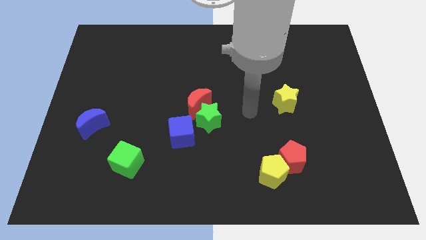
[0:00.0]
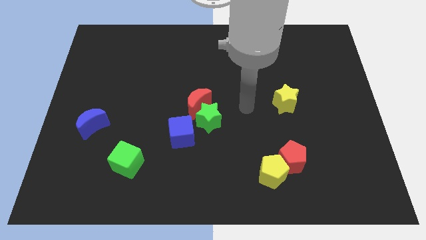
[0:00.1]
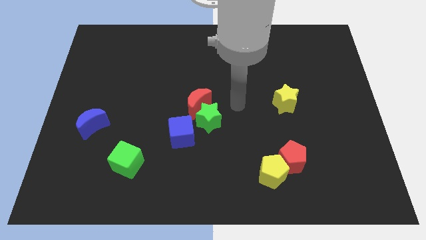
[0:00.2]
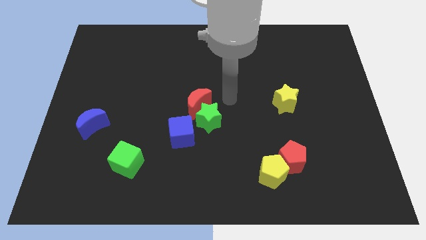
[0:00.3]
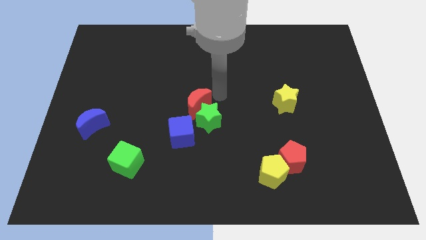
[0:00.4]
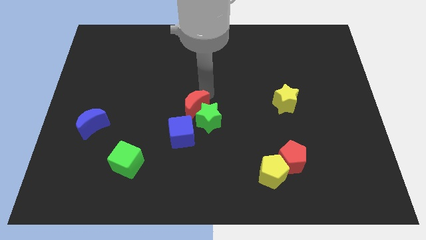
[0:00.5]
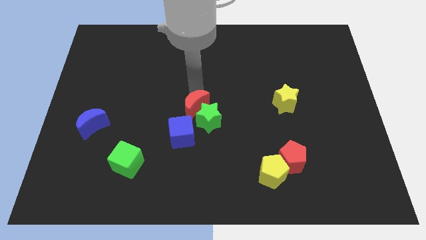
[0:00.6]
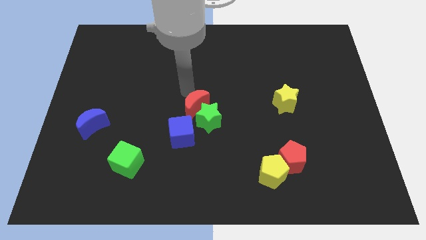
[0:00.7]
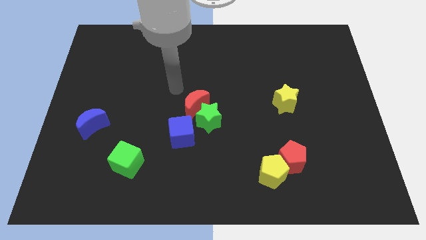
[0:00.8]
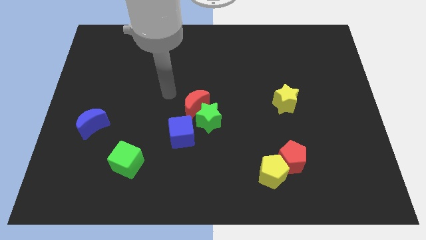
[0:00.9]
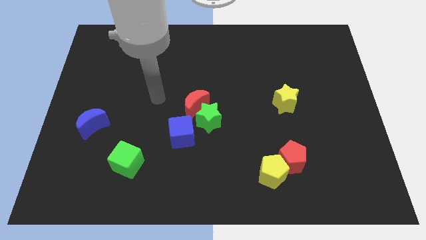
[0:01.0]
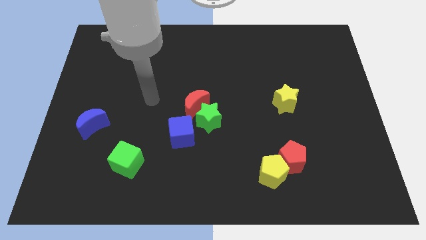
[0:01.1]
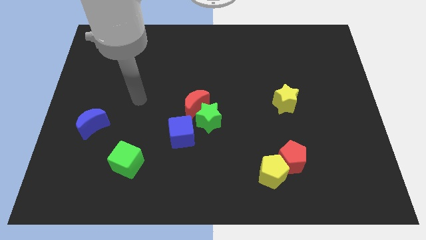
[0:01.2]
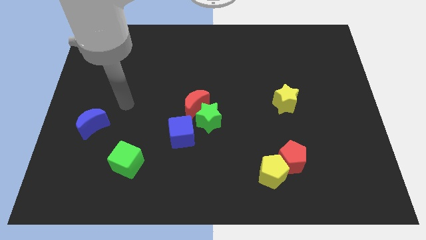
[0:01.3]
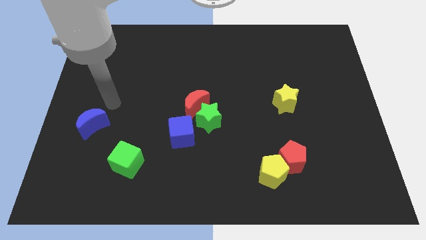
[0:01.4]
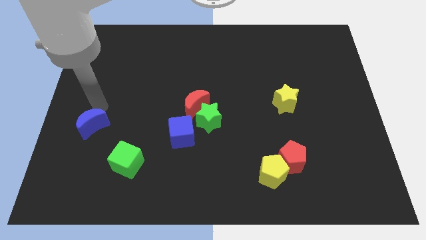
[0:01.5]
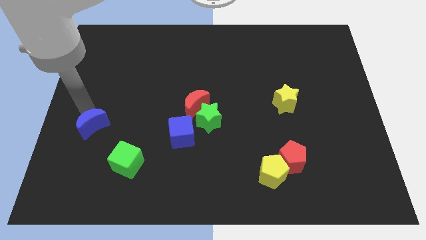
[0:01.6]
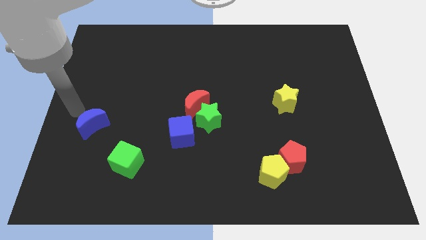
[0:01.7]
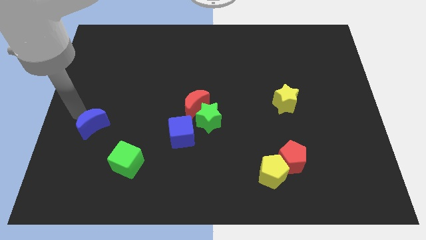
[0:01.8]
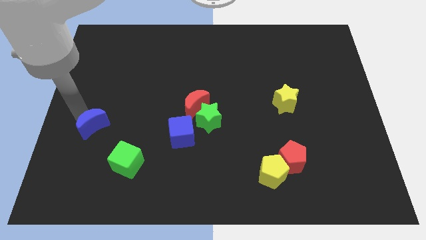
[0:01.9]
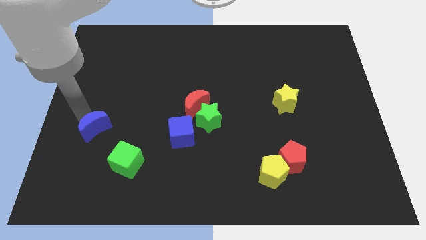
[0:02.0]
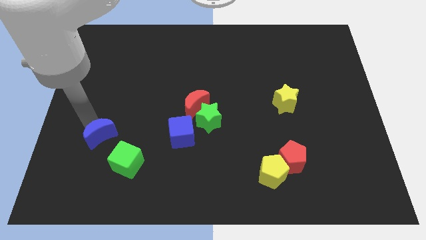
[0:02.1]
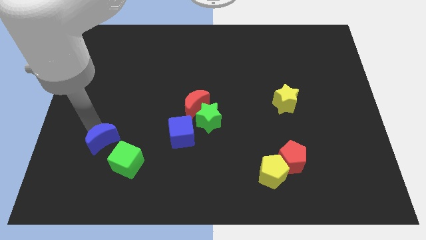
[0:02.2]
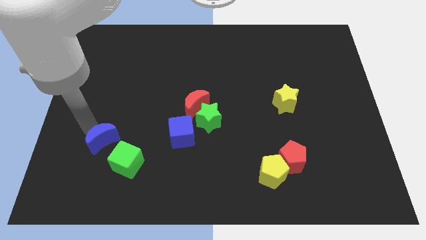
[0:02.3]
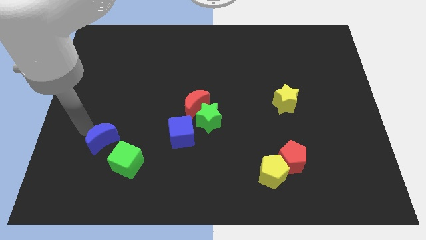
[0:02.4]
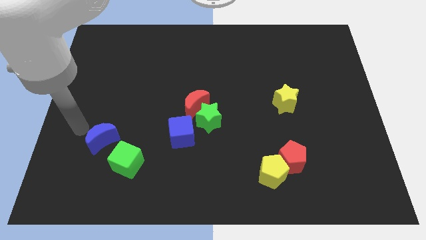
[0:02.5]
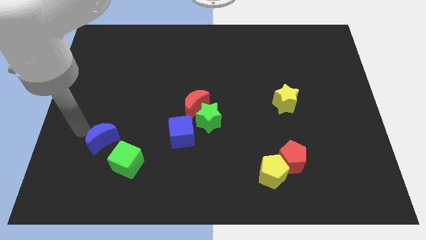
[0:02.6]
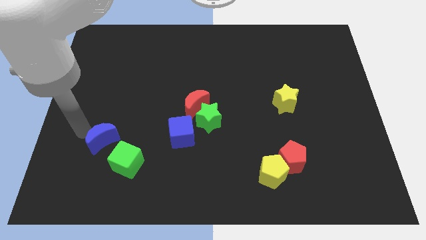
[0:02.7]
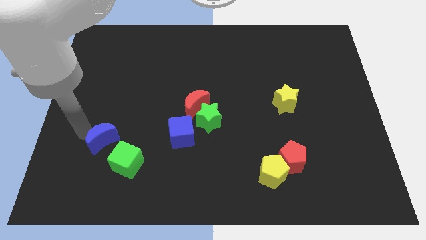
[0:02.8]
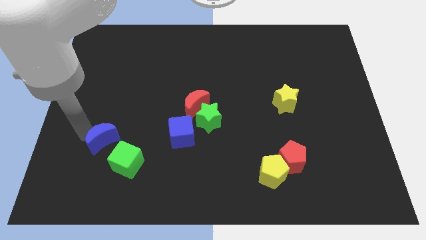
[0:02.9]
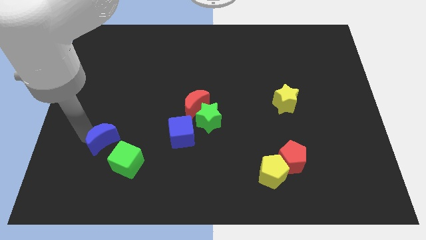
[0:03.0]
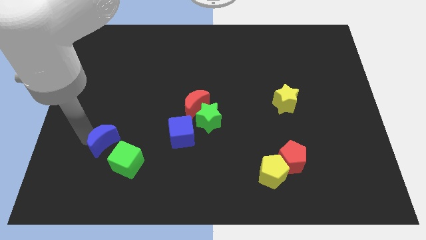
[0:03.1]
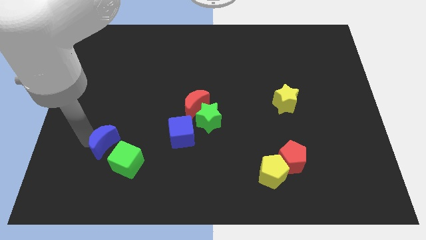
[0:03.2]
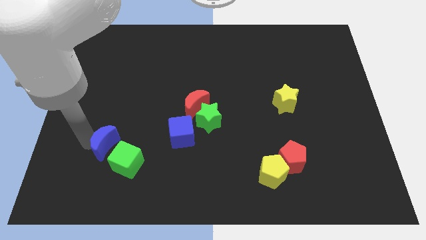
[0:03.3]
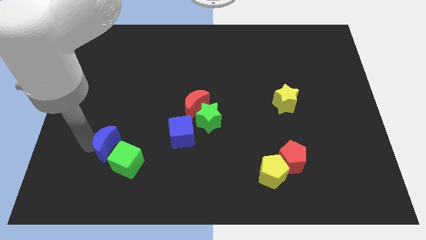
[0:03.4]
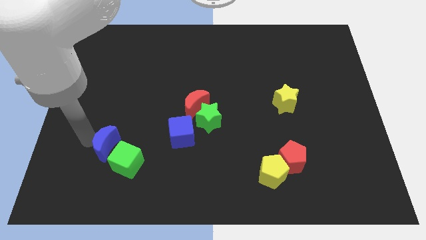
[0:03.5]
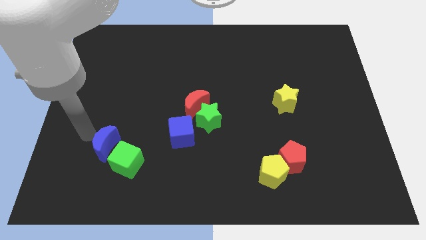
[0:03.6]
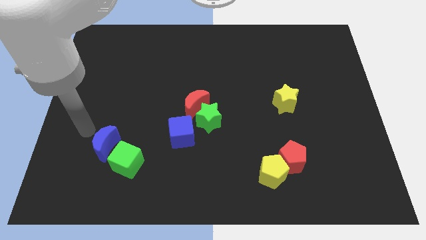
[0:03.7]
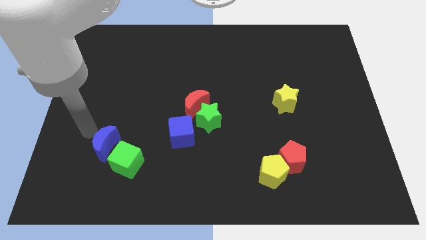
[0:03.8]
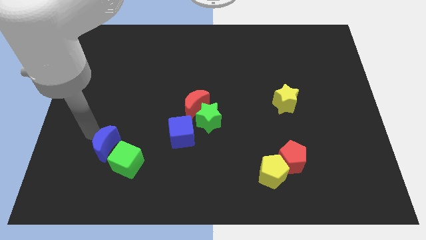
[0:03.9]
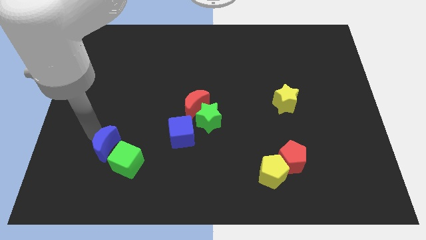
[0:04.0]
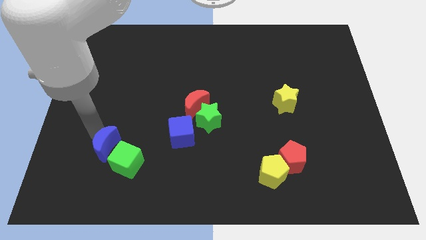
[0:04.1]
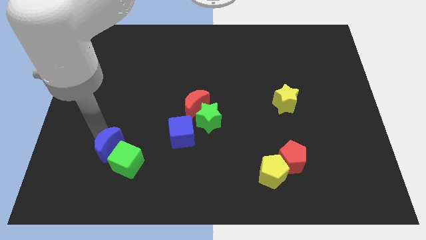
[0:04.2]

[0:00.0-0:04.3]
slide the blue moon close to the green cube

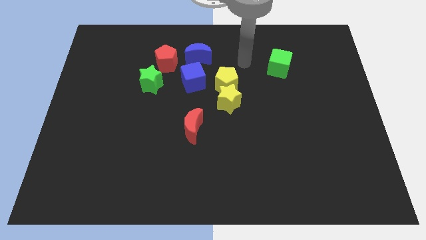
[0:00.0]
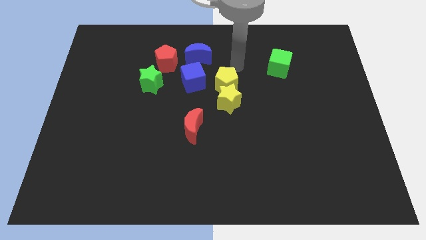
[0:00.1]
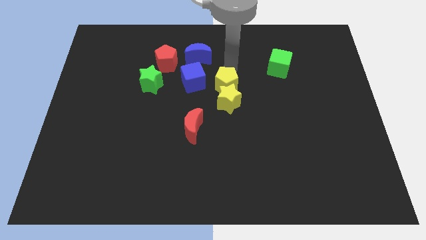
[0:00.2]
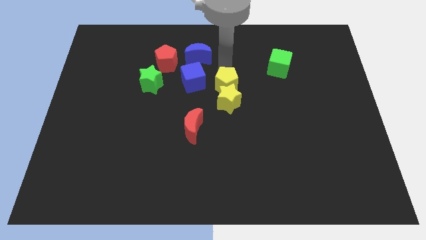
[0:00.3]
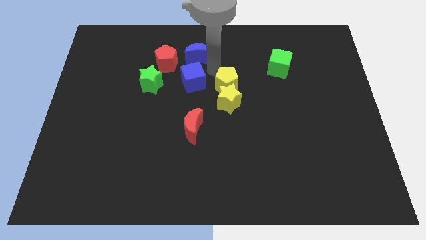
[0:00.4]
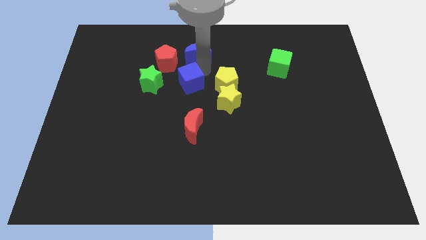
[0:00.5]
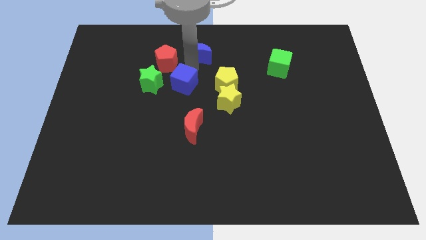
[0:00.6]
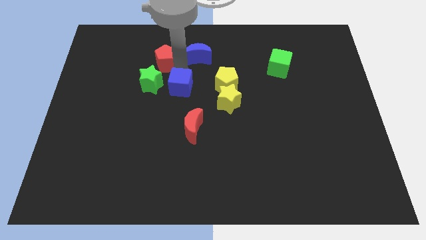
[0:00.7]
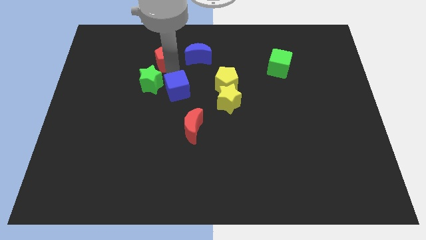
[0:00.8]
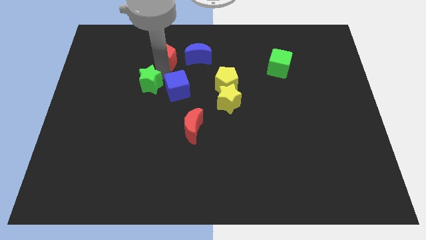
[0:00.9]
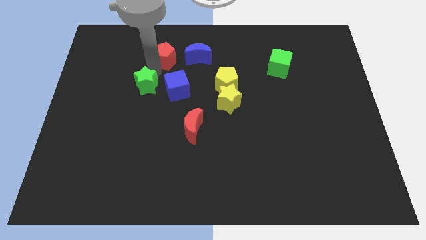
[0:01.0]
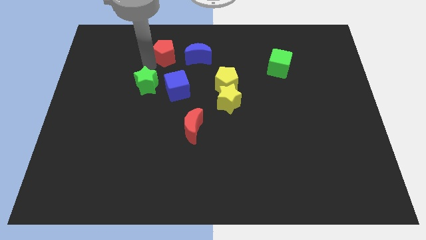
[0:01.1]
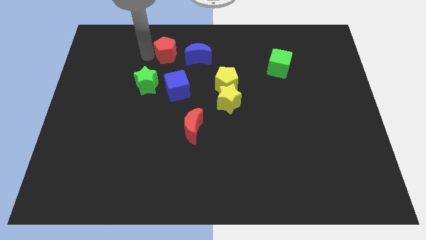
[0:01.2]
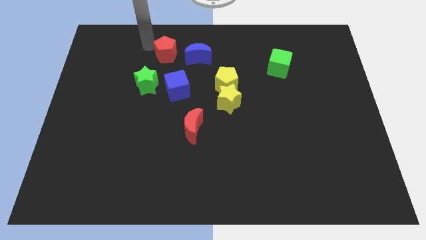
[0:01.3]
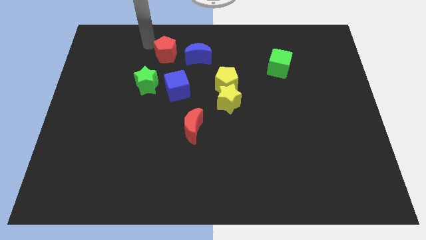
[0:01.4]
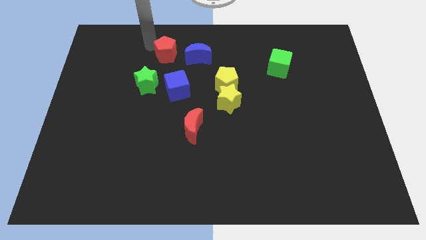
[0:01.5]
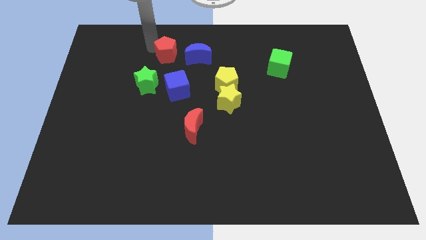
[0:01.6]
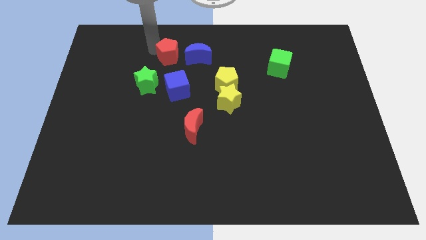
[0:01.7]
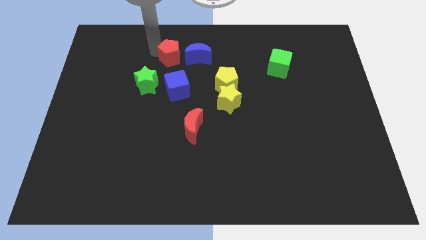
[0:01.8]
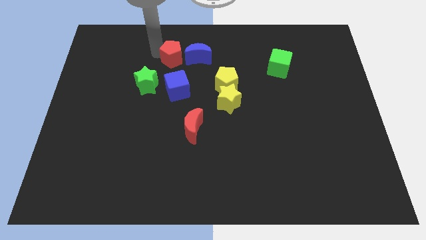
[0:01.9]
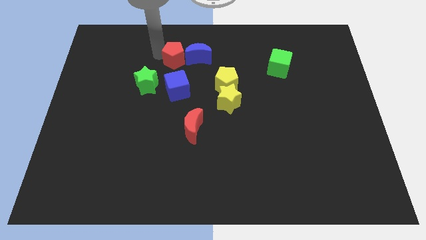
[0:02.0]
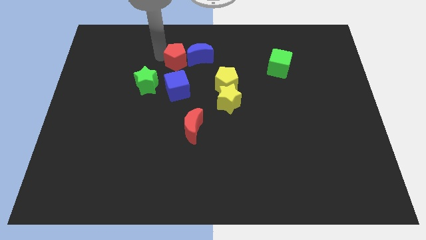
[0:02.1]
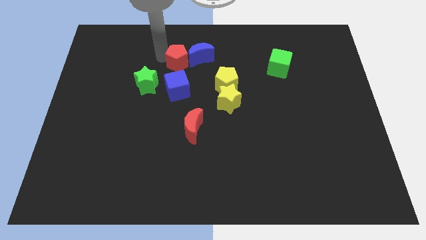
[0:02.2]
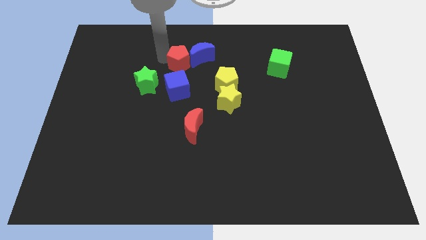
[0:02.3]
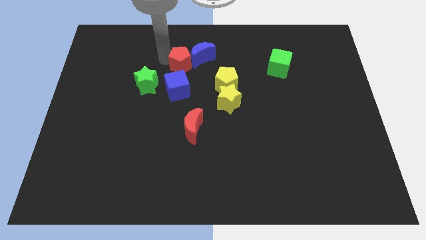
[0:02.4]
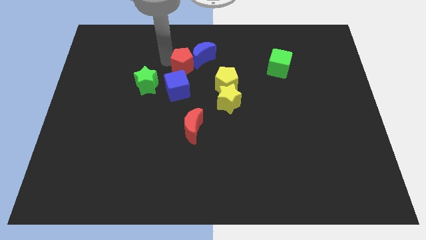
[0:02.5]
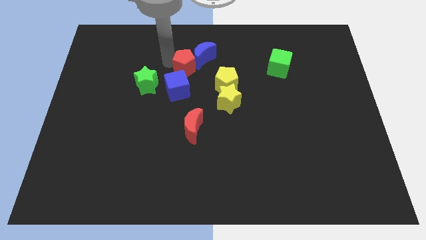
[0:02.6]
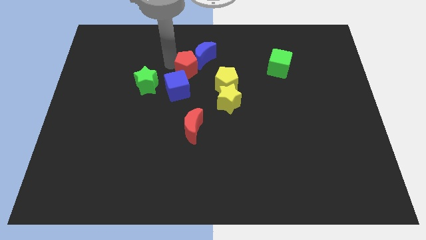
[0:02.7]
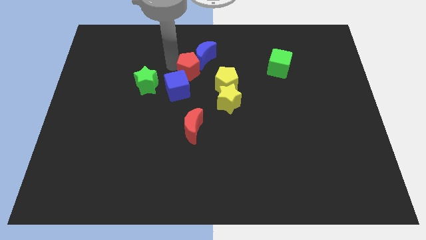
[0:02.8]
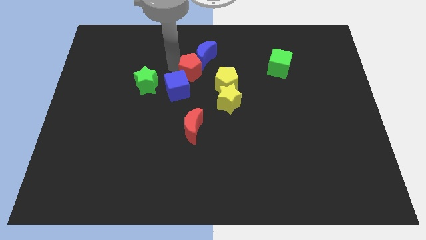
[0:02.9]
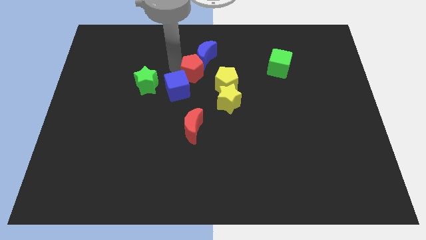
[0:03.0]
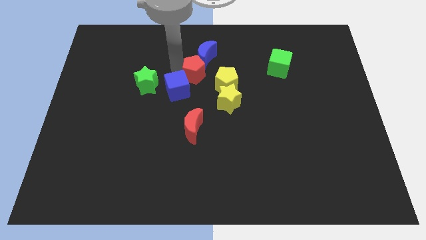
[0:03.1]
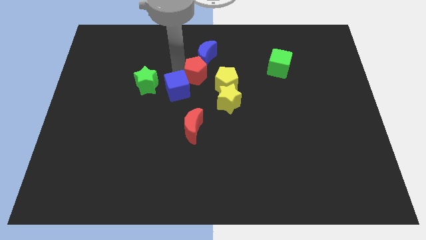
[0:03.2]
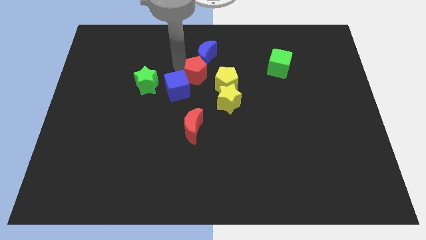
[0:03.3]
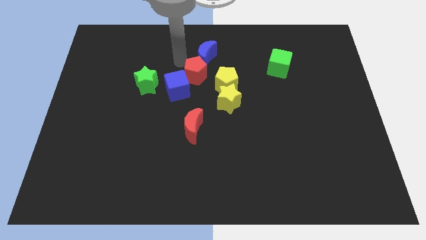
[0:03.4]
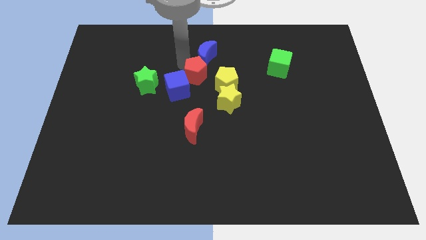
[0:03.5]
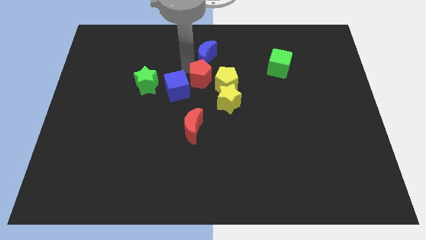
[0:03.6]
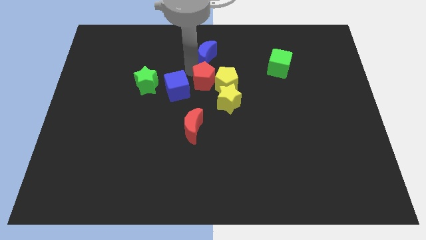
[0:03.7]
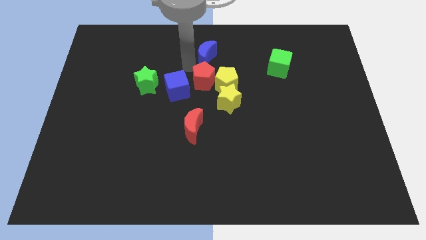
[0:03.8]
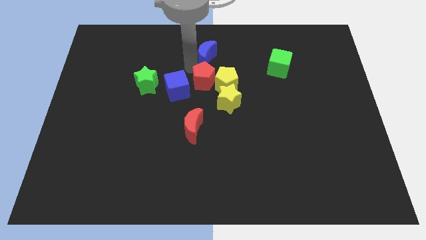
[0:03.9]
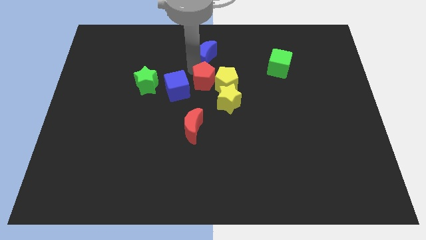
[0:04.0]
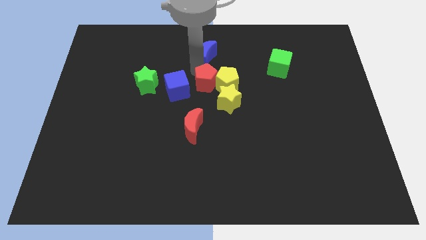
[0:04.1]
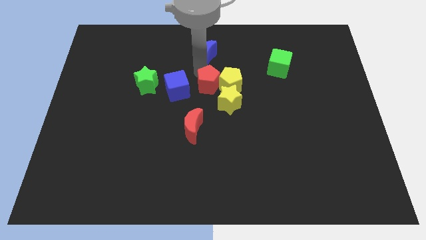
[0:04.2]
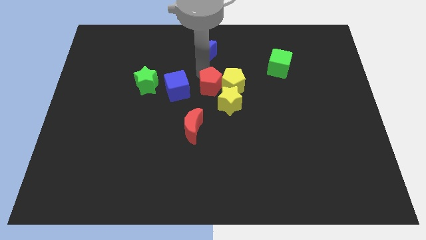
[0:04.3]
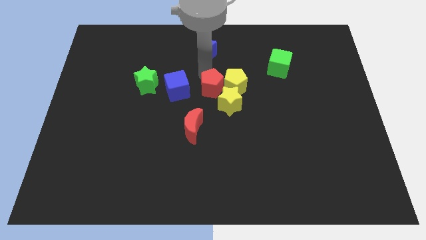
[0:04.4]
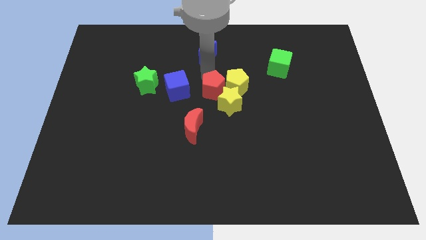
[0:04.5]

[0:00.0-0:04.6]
put the red pentagon to the yellow star
